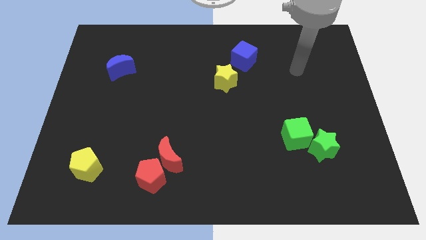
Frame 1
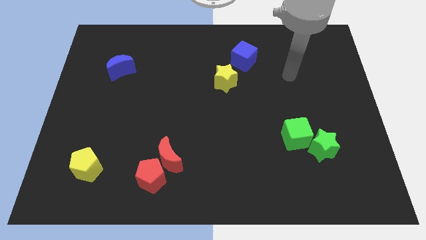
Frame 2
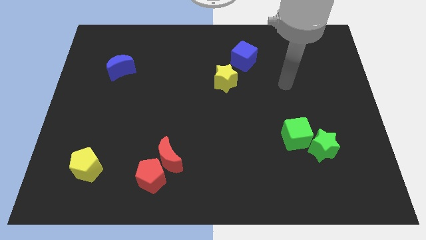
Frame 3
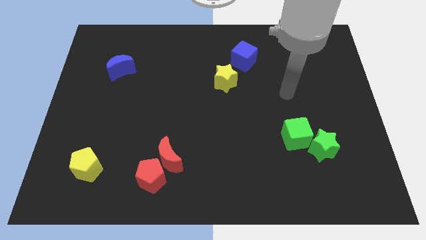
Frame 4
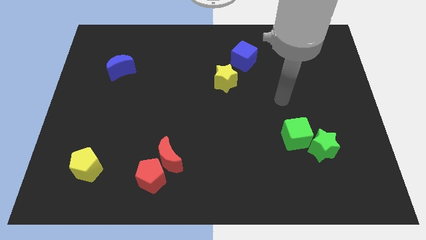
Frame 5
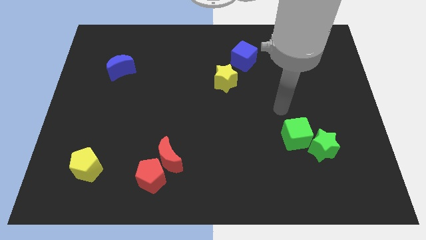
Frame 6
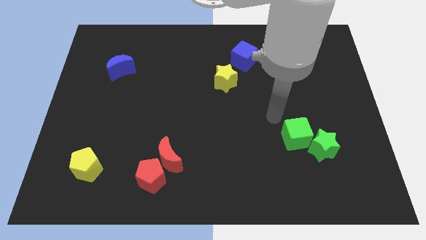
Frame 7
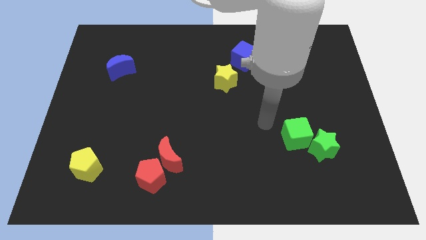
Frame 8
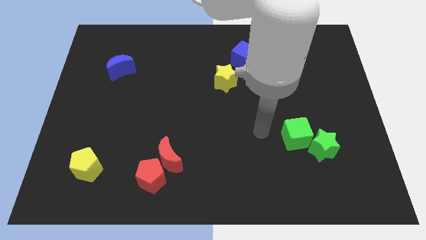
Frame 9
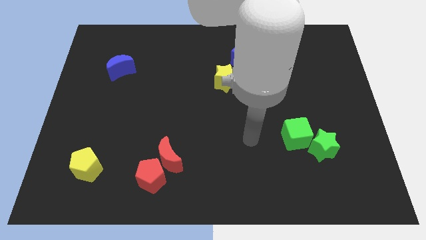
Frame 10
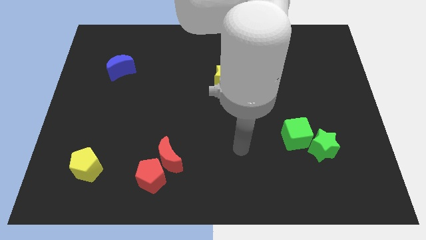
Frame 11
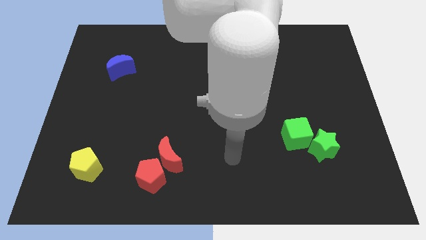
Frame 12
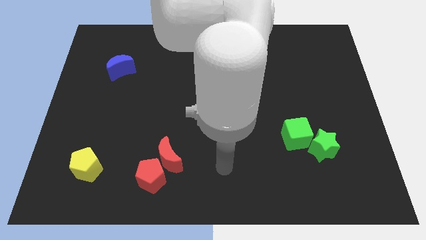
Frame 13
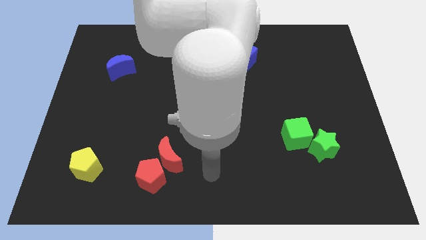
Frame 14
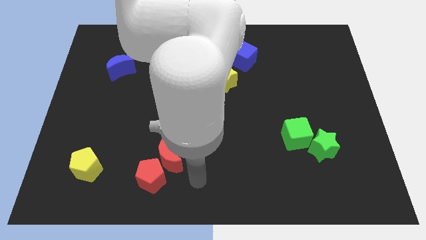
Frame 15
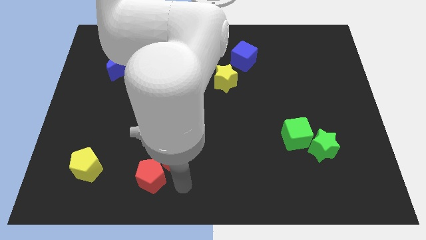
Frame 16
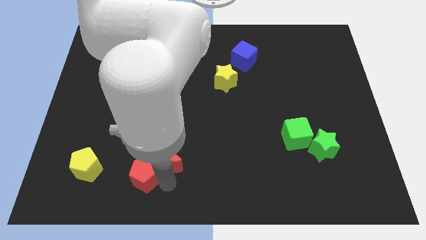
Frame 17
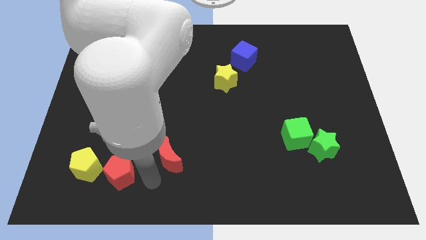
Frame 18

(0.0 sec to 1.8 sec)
separate the red moon from the red pentagon

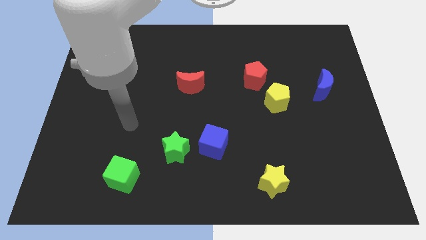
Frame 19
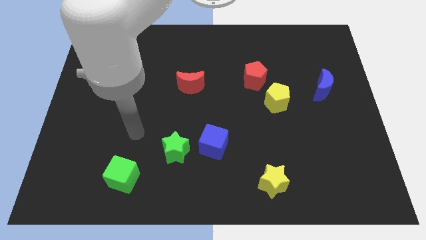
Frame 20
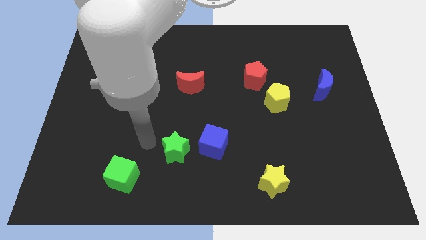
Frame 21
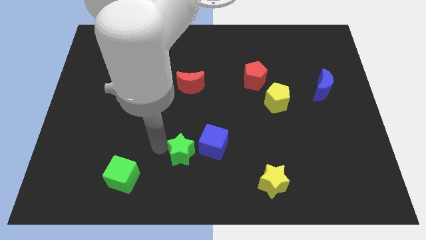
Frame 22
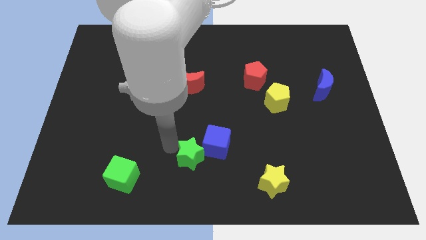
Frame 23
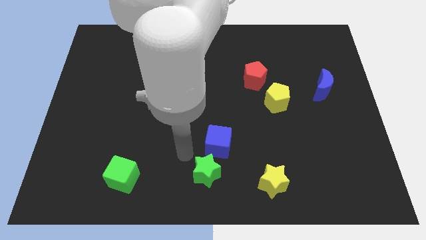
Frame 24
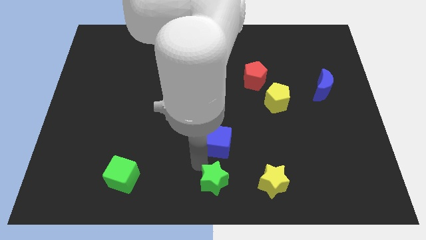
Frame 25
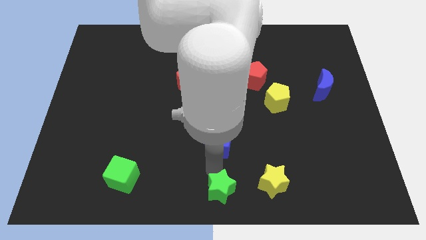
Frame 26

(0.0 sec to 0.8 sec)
separate the blue cube from the green star

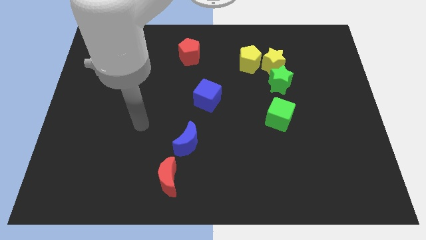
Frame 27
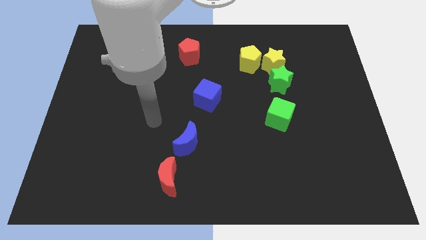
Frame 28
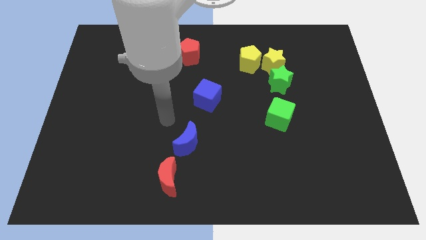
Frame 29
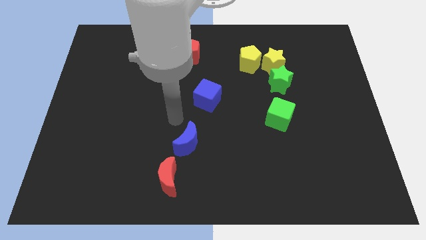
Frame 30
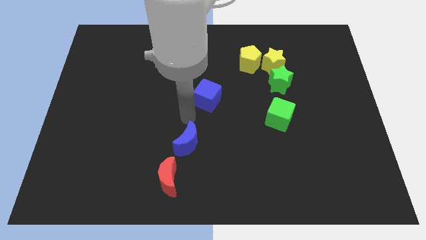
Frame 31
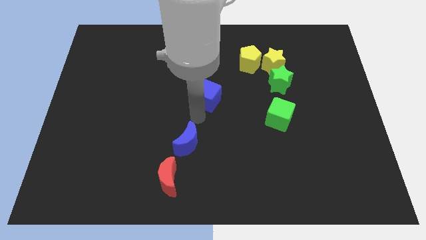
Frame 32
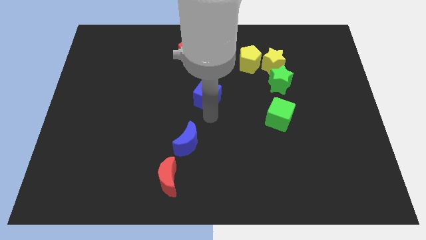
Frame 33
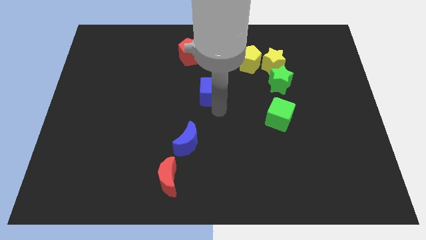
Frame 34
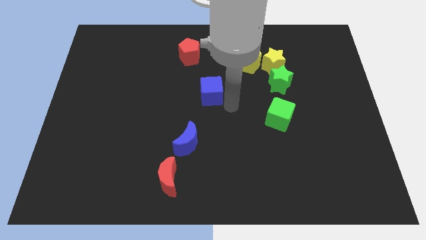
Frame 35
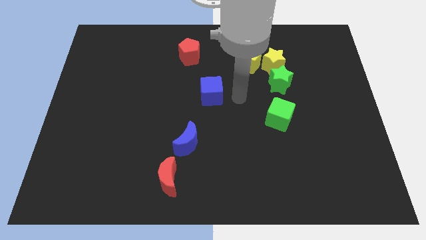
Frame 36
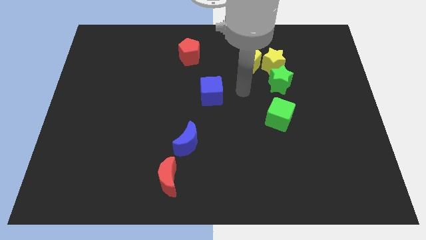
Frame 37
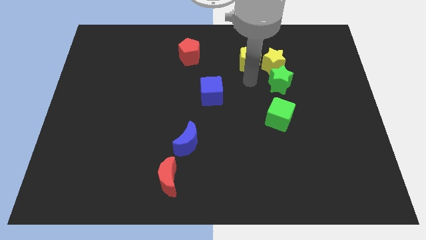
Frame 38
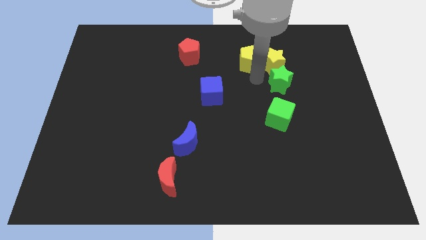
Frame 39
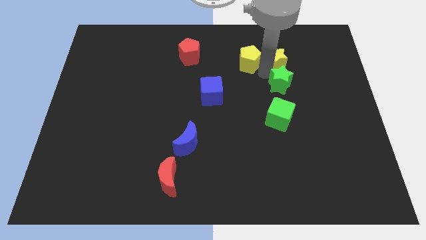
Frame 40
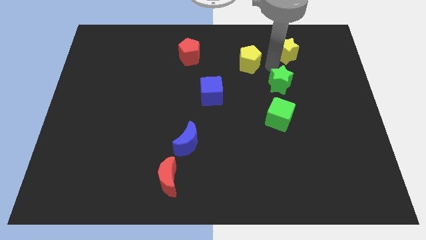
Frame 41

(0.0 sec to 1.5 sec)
pull the yellow pentagon apart from the yellow star

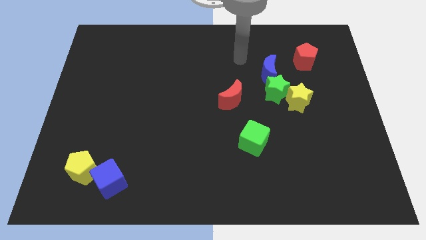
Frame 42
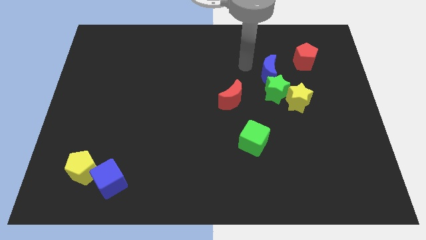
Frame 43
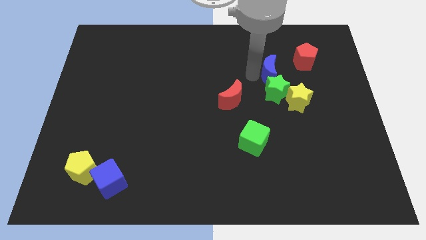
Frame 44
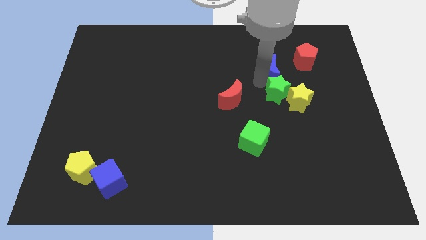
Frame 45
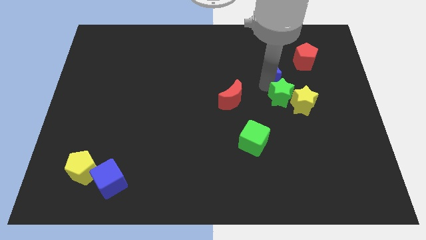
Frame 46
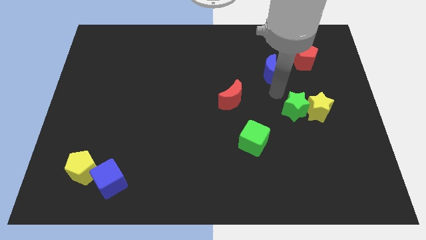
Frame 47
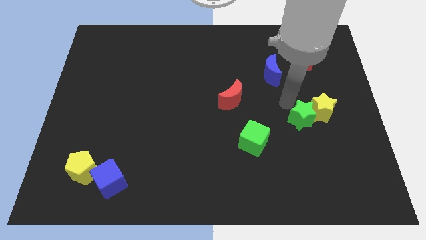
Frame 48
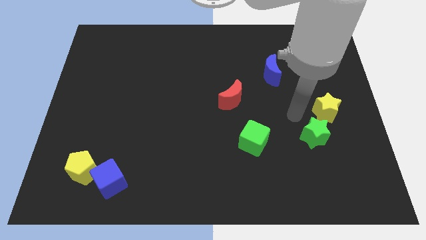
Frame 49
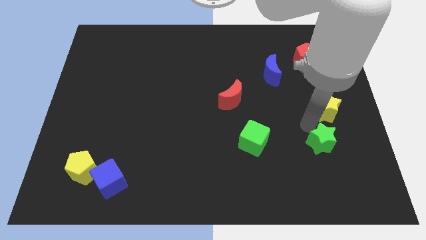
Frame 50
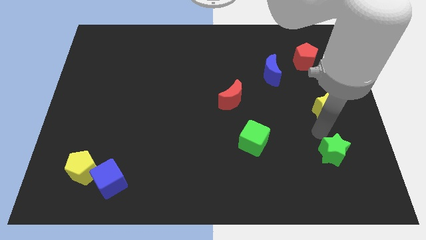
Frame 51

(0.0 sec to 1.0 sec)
separate the yellow star from the green star

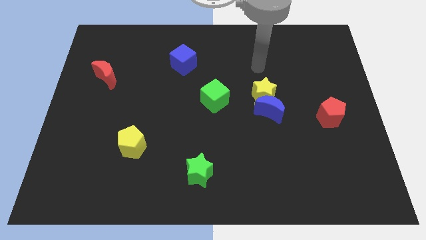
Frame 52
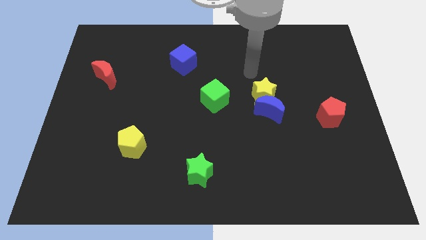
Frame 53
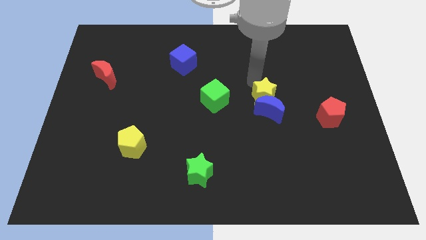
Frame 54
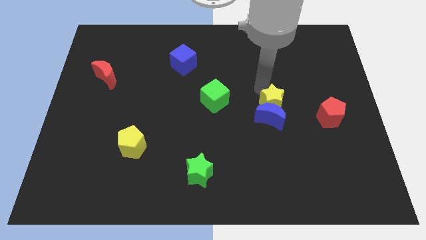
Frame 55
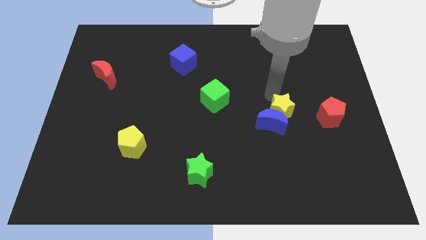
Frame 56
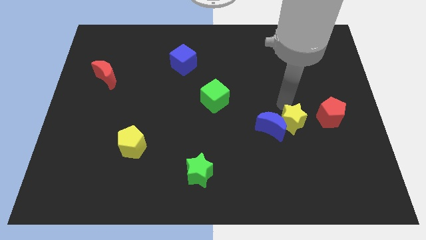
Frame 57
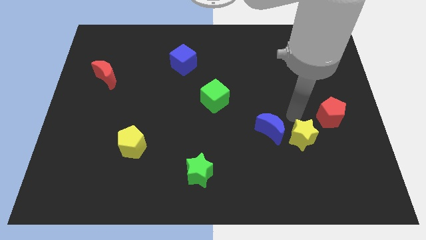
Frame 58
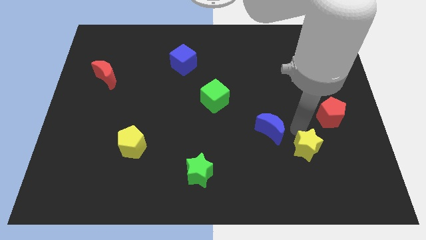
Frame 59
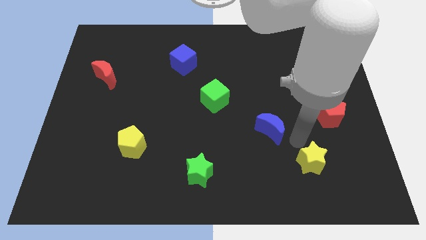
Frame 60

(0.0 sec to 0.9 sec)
separate the blue moon from the yellow star

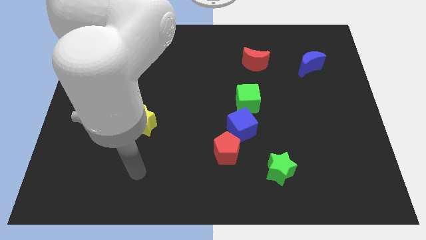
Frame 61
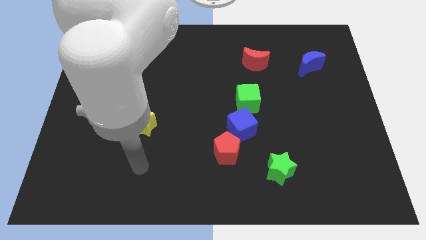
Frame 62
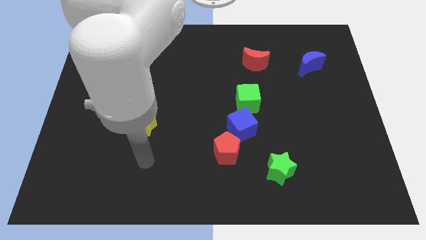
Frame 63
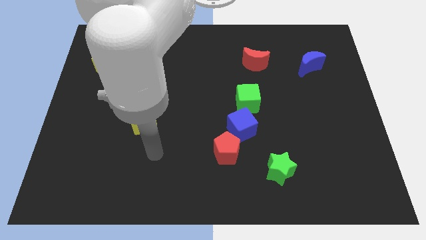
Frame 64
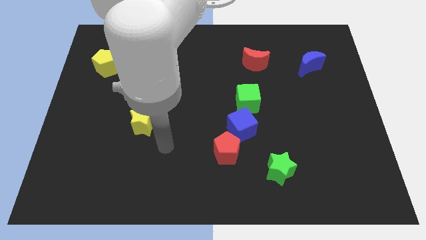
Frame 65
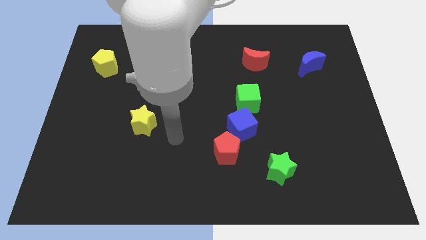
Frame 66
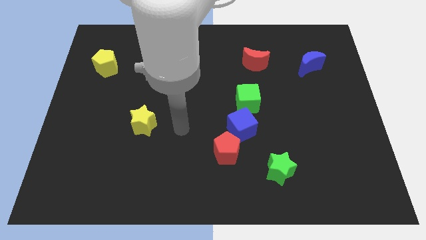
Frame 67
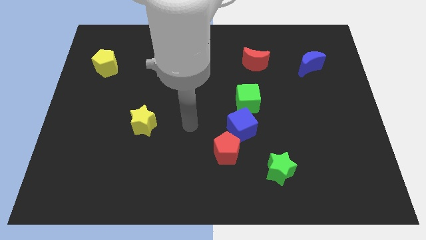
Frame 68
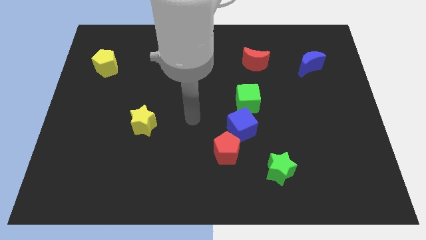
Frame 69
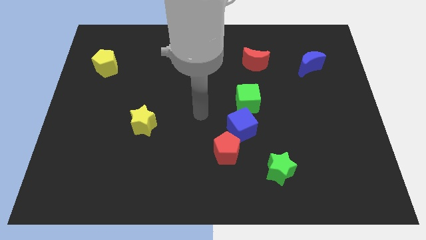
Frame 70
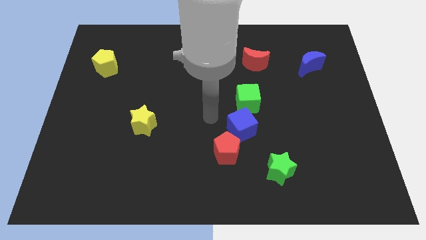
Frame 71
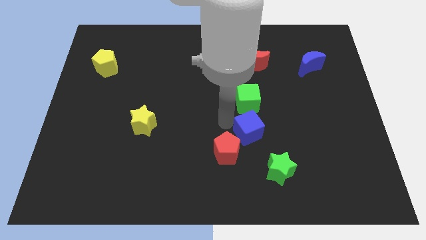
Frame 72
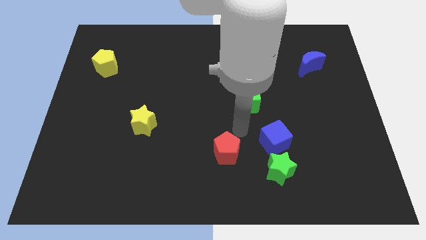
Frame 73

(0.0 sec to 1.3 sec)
pull the red pentagon apart from the blue cube

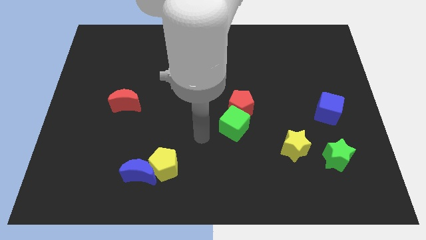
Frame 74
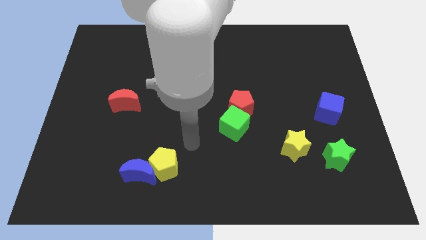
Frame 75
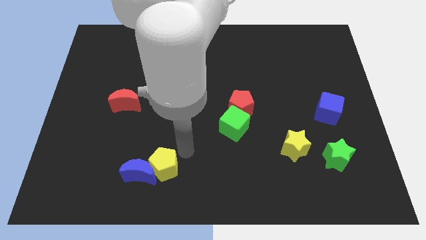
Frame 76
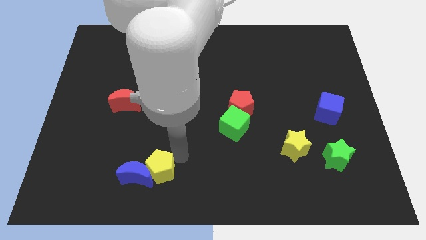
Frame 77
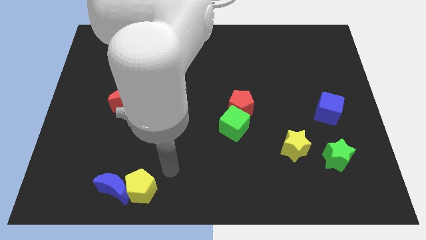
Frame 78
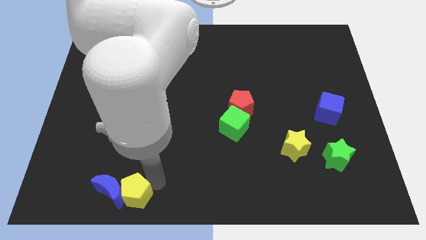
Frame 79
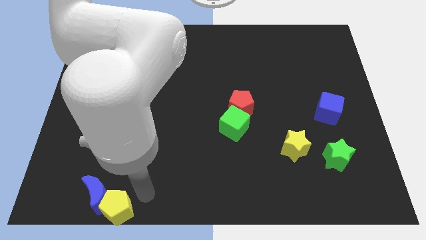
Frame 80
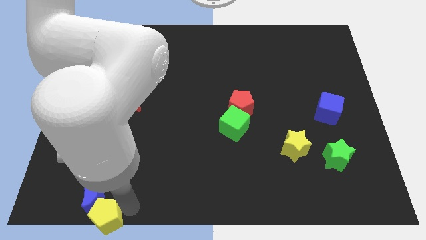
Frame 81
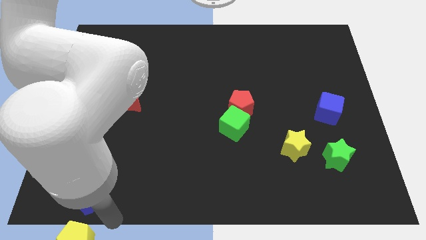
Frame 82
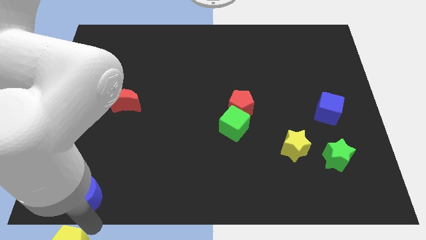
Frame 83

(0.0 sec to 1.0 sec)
move the blue moon away from the yellow pentagon

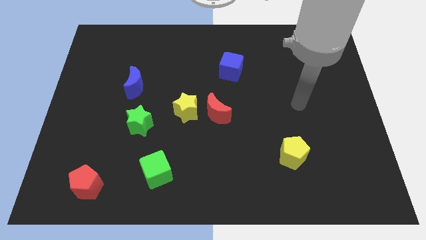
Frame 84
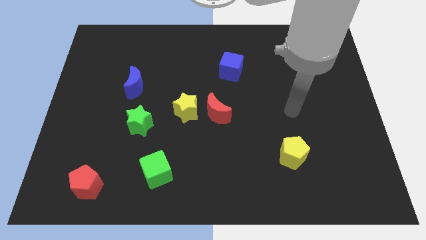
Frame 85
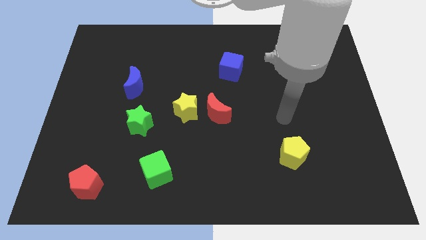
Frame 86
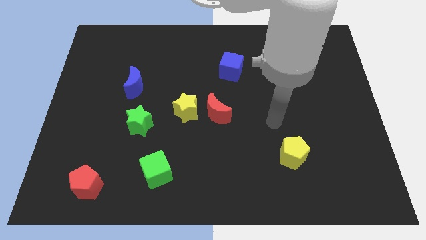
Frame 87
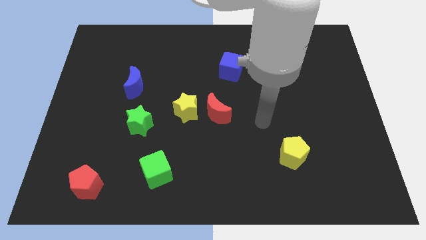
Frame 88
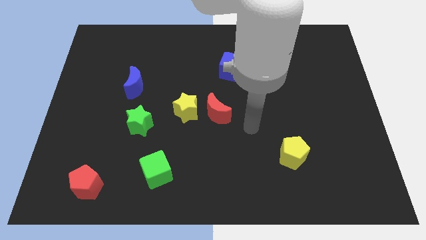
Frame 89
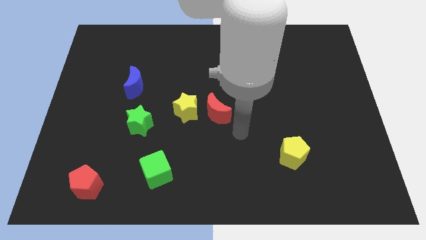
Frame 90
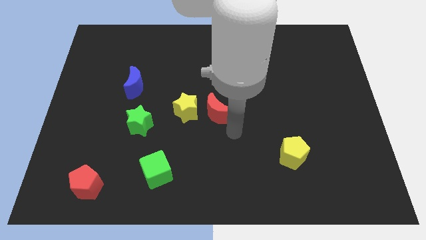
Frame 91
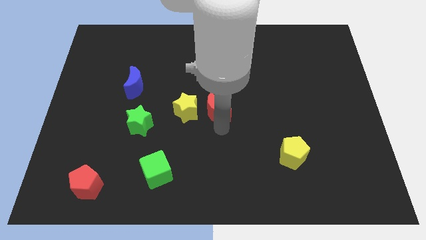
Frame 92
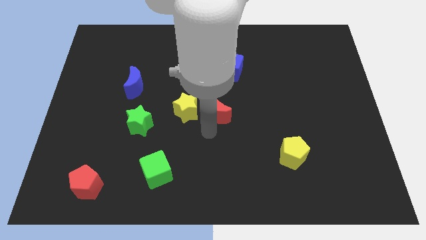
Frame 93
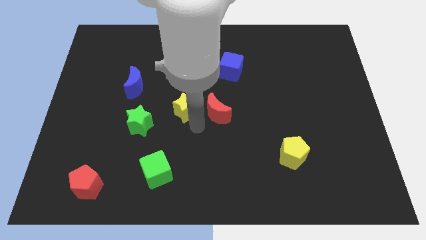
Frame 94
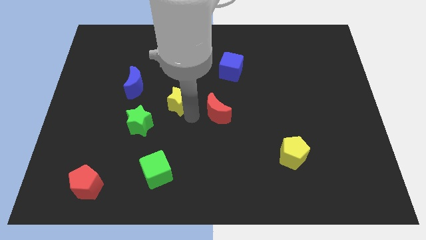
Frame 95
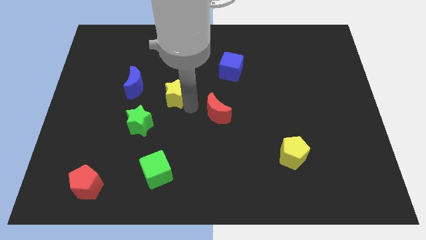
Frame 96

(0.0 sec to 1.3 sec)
move the red moon away from the yellow star
